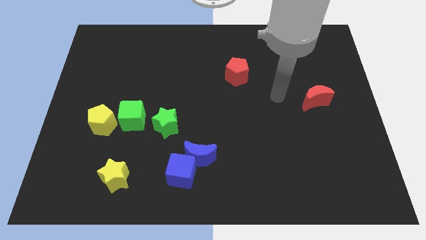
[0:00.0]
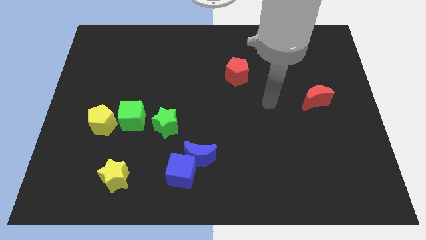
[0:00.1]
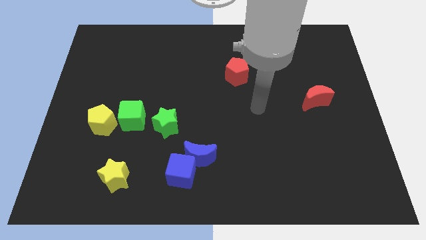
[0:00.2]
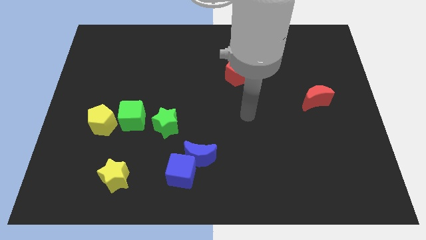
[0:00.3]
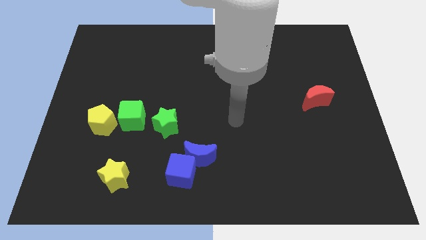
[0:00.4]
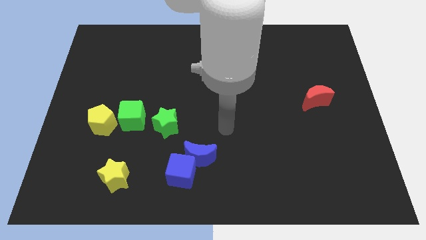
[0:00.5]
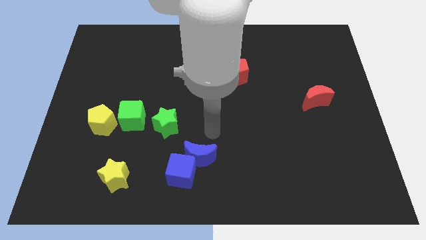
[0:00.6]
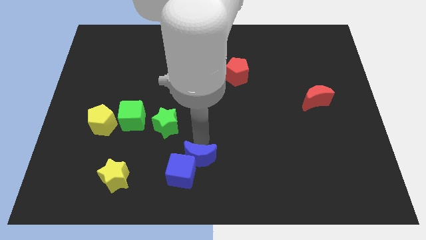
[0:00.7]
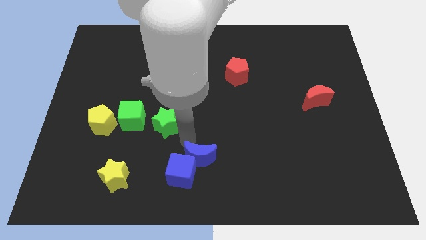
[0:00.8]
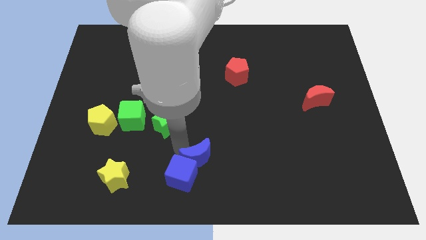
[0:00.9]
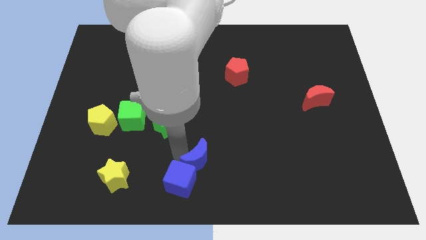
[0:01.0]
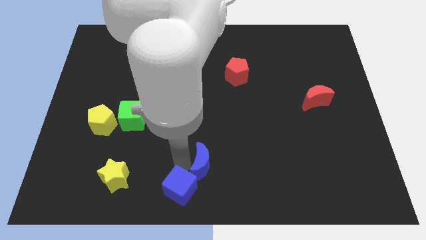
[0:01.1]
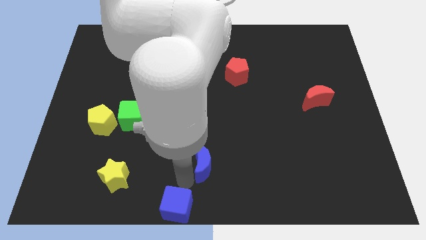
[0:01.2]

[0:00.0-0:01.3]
separate the blue moon from the blue cube

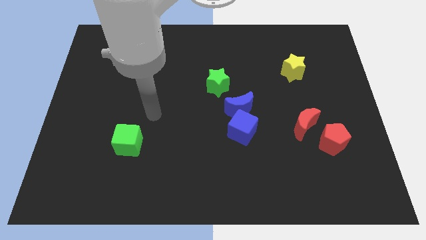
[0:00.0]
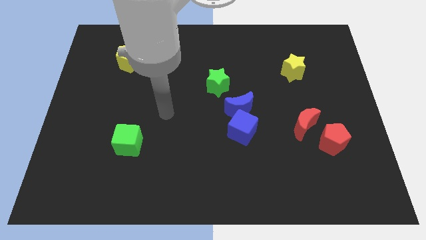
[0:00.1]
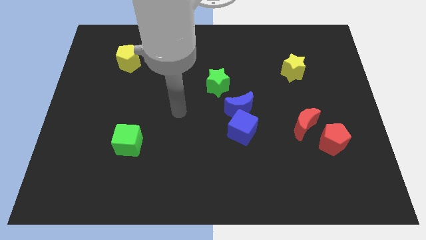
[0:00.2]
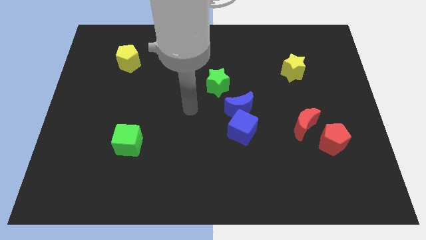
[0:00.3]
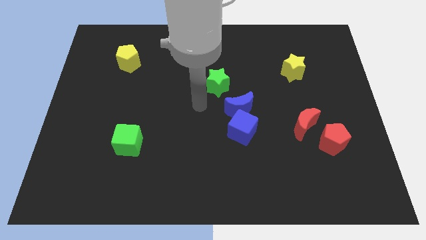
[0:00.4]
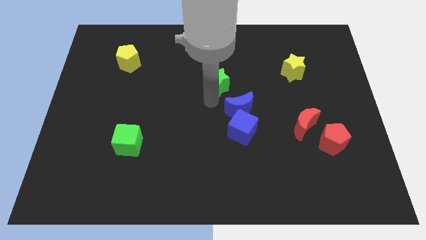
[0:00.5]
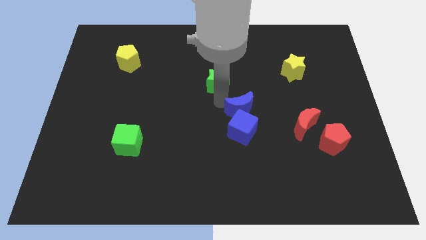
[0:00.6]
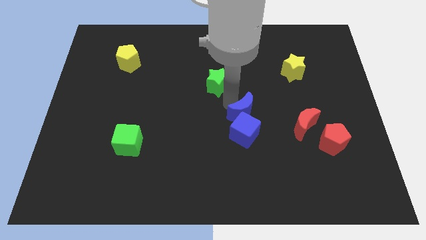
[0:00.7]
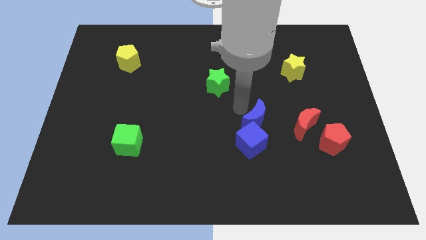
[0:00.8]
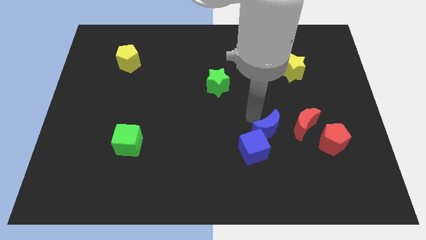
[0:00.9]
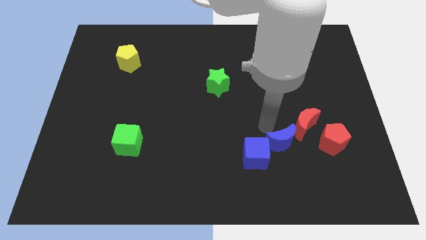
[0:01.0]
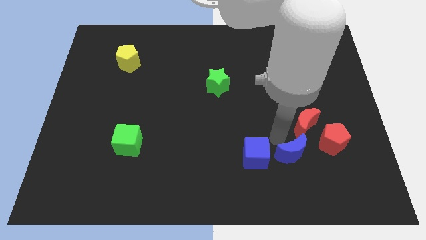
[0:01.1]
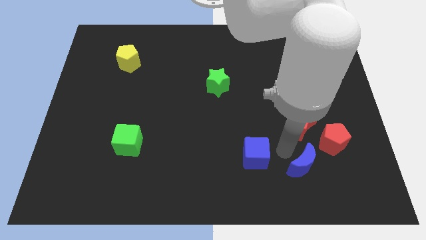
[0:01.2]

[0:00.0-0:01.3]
pull the blue cube apart from the blue moon

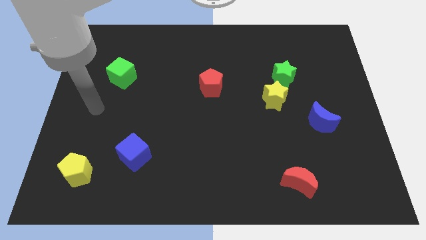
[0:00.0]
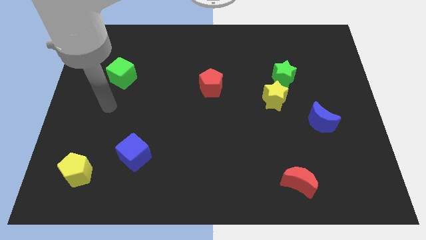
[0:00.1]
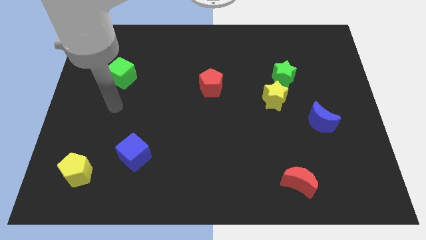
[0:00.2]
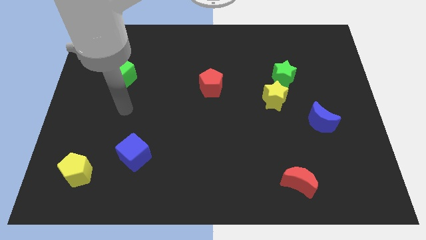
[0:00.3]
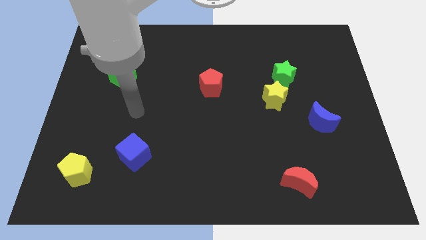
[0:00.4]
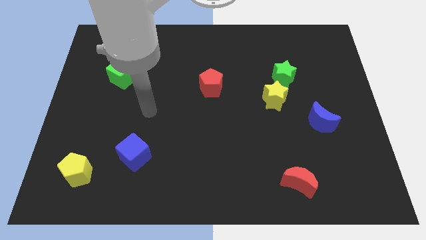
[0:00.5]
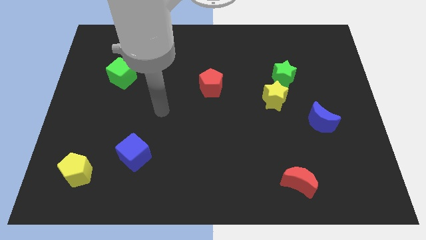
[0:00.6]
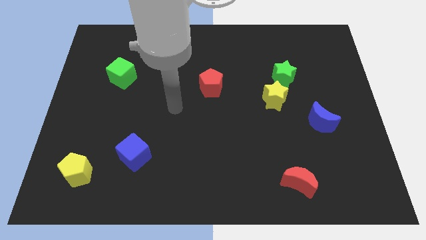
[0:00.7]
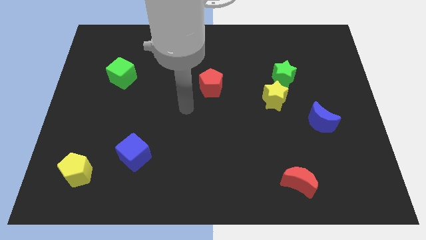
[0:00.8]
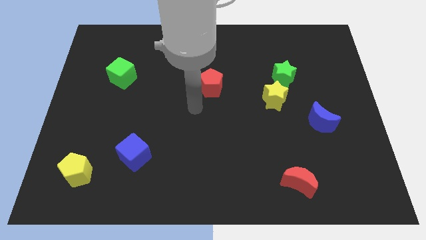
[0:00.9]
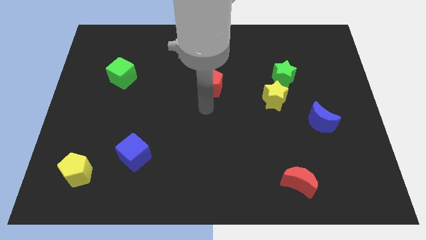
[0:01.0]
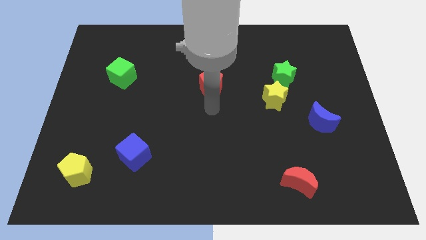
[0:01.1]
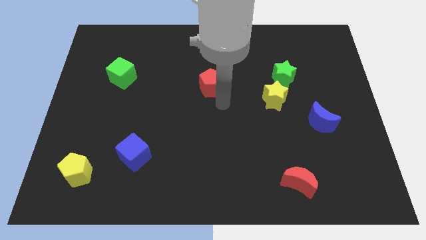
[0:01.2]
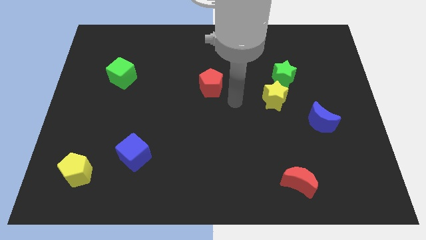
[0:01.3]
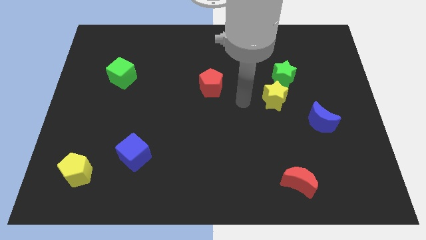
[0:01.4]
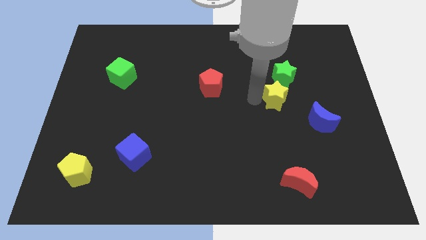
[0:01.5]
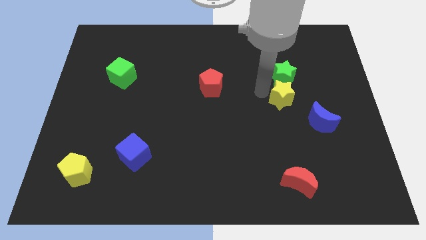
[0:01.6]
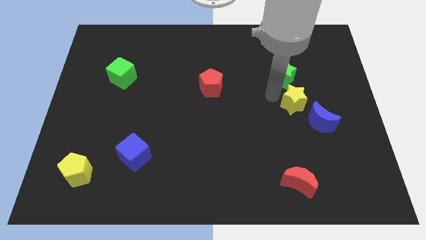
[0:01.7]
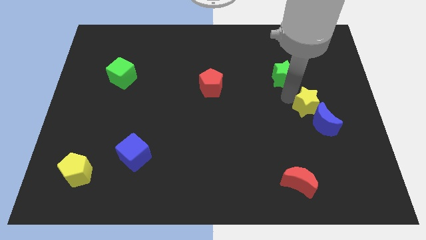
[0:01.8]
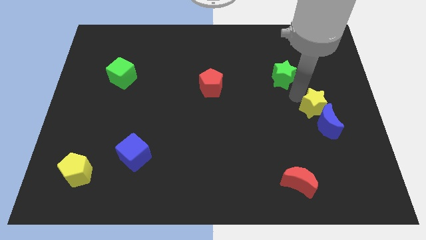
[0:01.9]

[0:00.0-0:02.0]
pull the green star apart from the yellow star

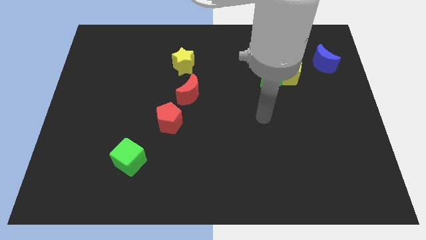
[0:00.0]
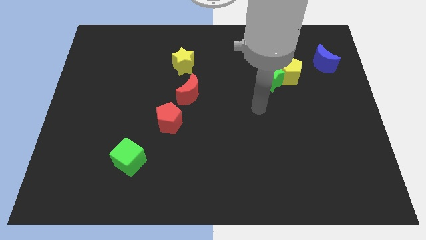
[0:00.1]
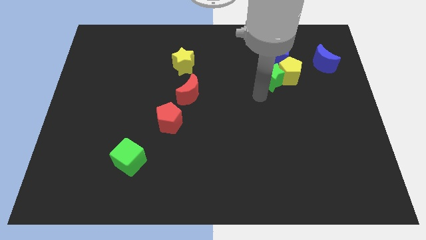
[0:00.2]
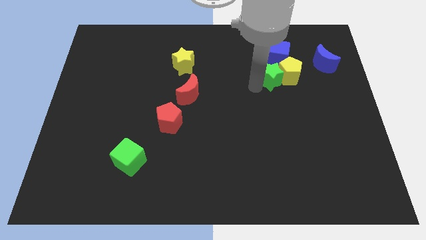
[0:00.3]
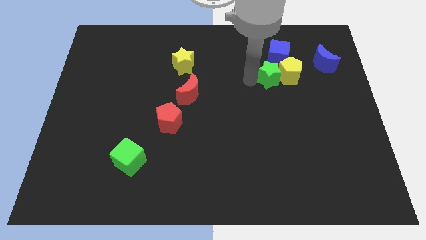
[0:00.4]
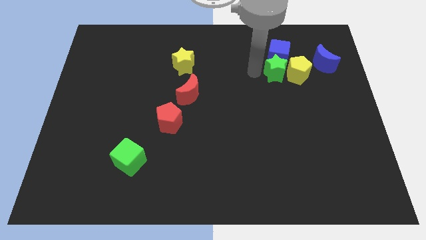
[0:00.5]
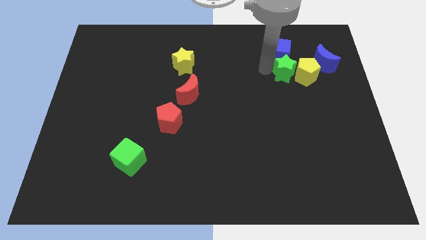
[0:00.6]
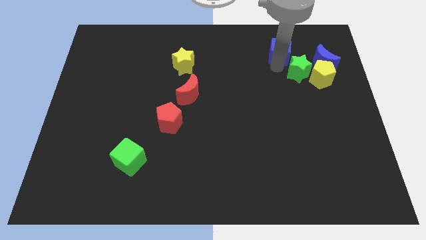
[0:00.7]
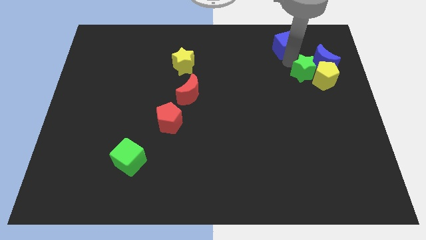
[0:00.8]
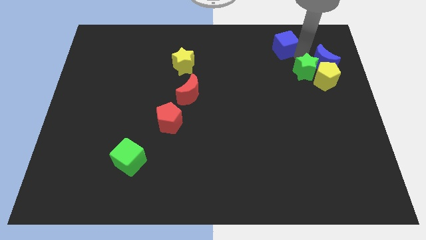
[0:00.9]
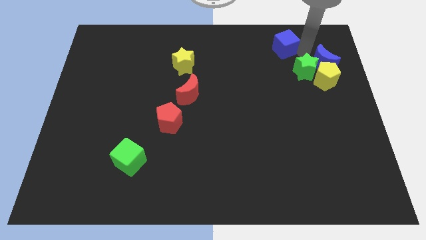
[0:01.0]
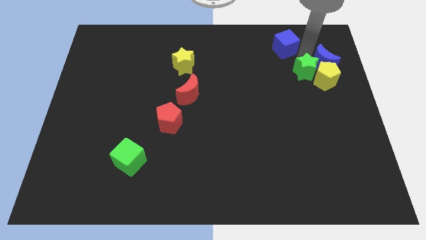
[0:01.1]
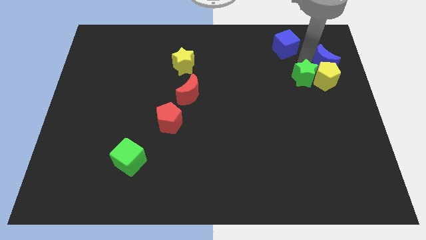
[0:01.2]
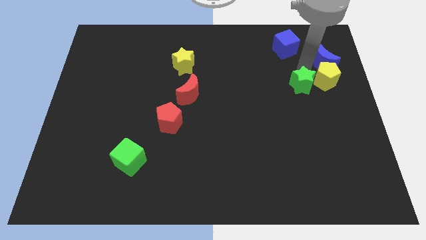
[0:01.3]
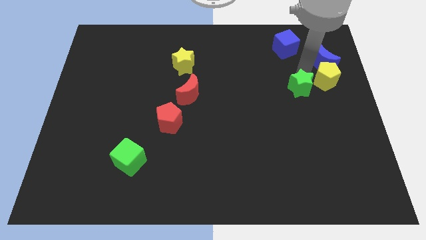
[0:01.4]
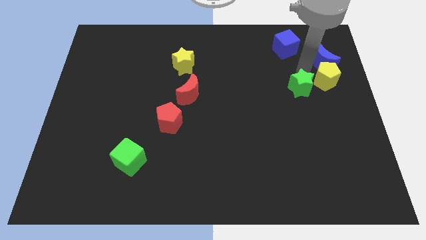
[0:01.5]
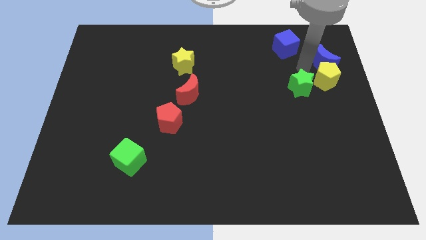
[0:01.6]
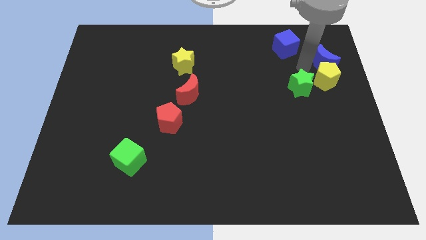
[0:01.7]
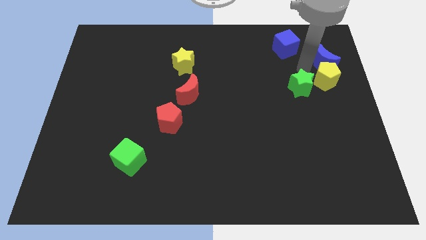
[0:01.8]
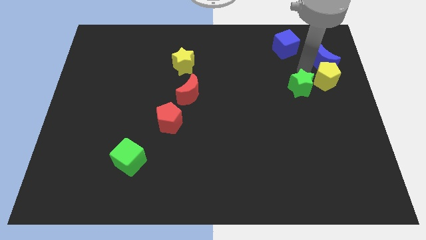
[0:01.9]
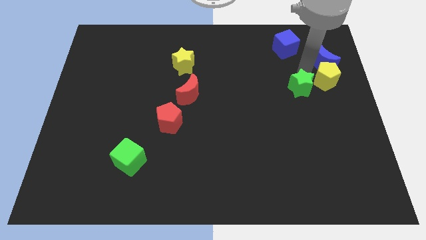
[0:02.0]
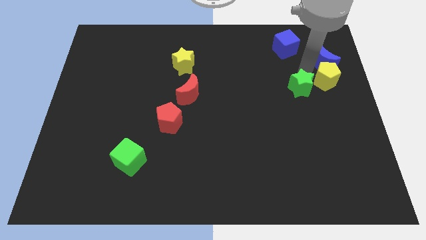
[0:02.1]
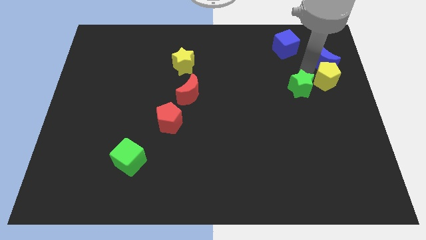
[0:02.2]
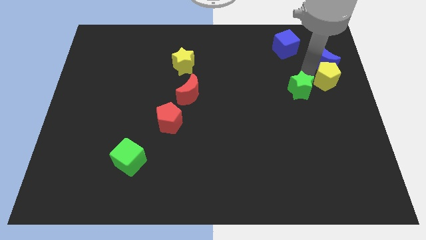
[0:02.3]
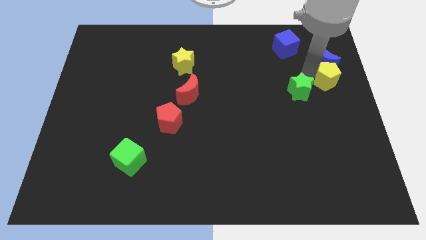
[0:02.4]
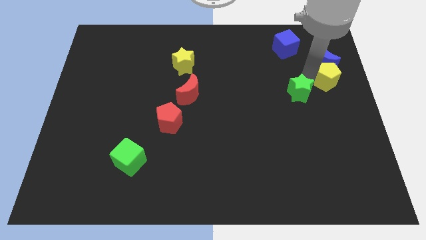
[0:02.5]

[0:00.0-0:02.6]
separate the green star from the yellow pentagon and blue cube

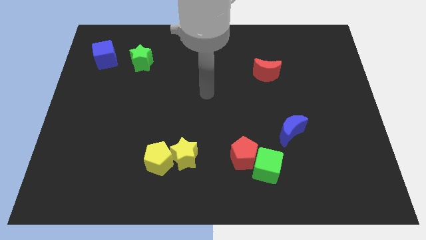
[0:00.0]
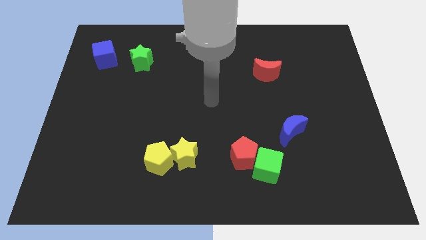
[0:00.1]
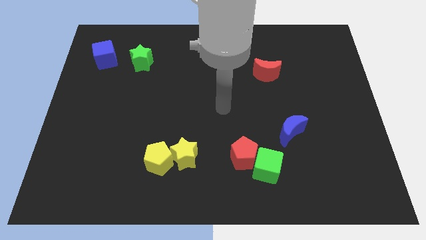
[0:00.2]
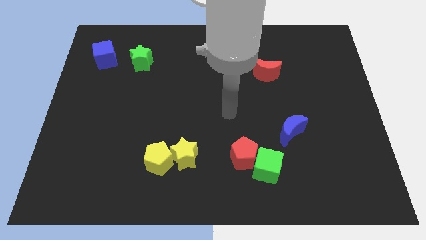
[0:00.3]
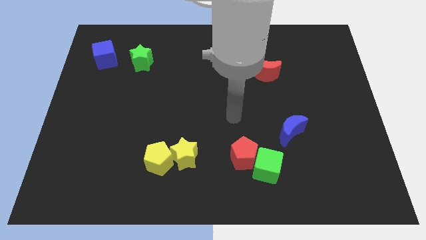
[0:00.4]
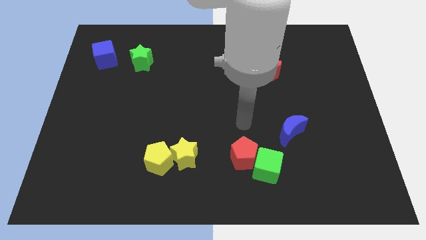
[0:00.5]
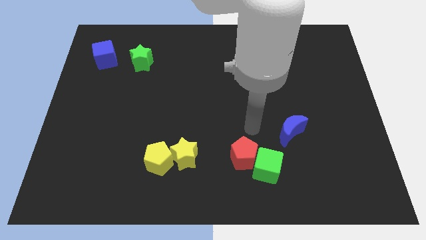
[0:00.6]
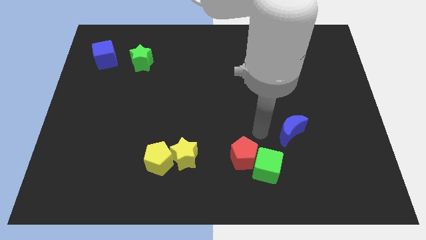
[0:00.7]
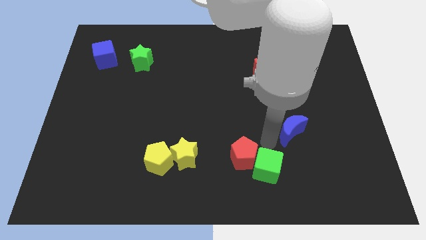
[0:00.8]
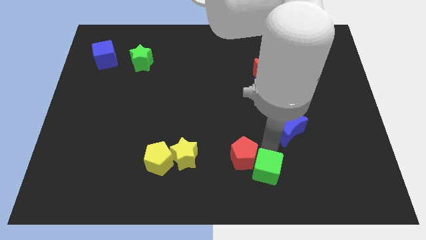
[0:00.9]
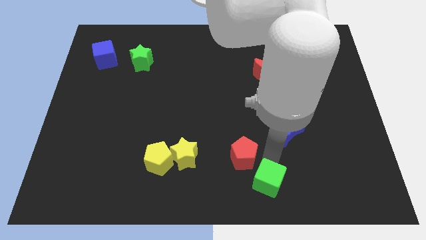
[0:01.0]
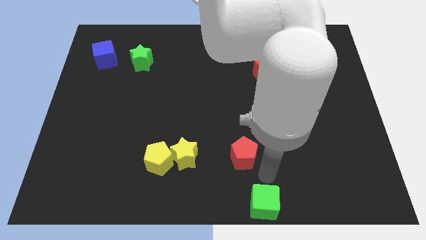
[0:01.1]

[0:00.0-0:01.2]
pull the red pentagon apart from the green cube

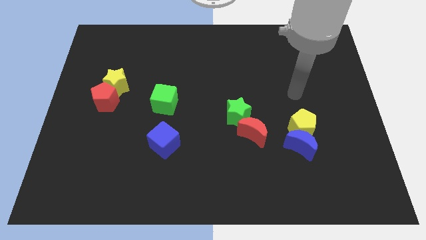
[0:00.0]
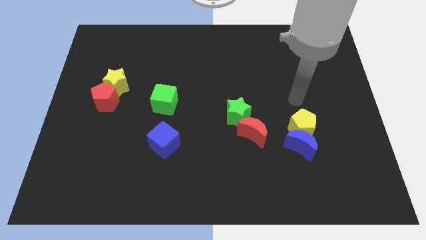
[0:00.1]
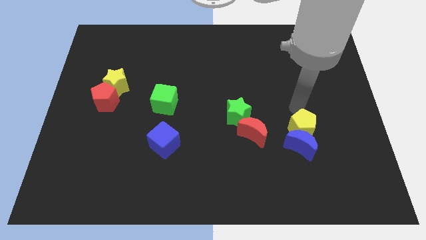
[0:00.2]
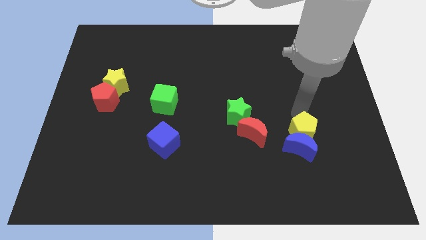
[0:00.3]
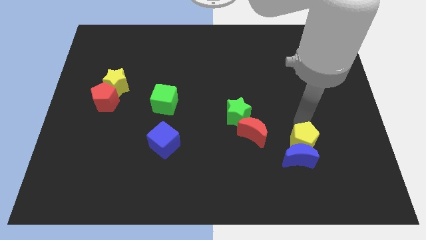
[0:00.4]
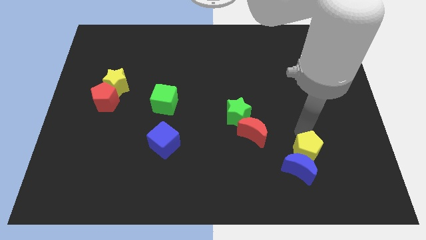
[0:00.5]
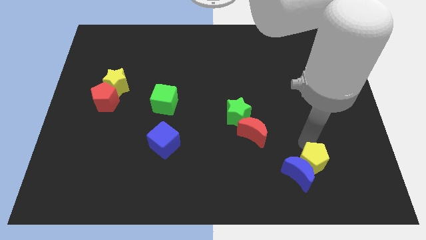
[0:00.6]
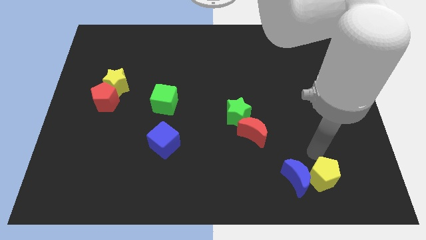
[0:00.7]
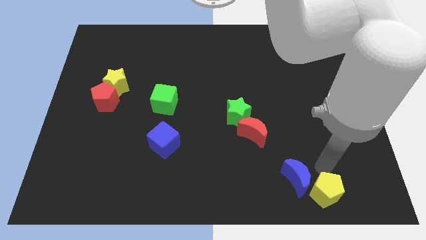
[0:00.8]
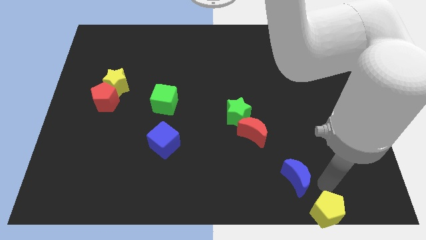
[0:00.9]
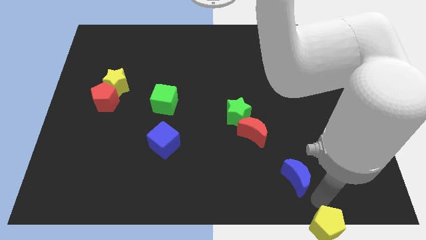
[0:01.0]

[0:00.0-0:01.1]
move the blue moon away from the yellow pentagon
